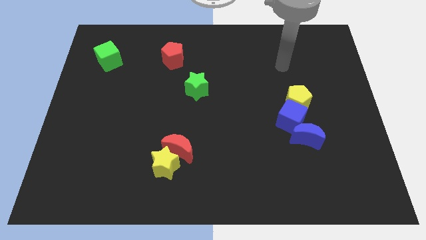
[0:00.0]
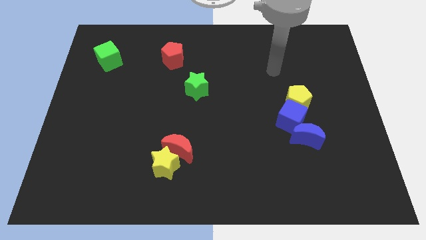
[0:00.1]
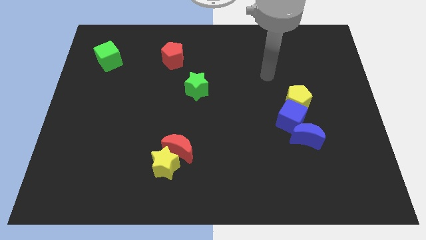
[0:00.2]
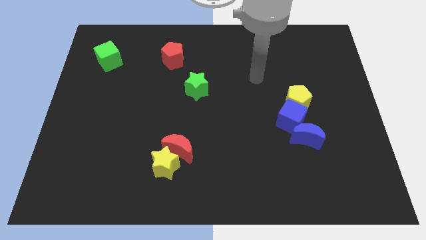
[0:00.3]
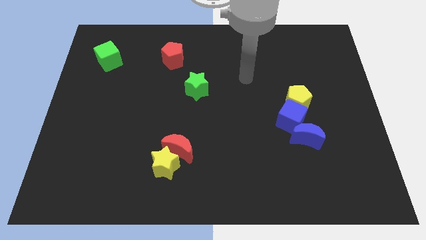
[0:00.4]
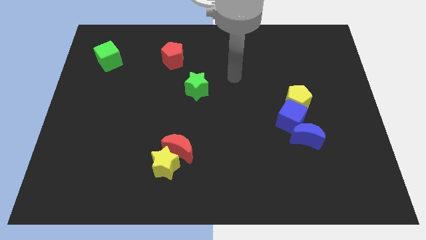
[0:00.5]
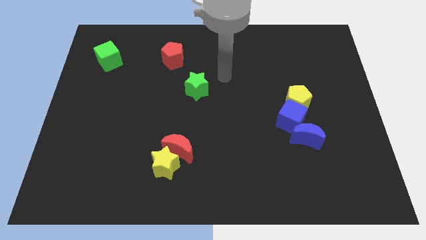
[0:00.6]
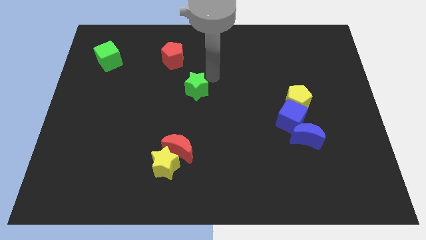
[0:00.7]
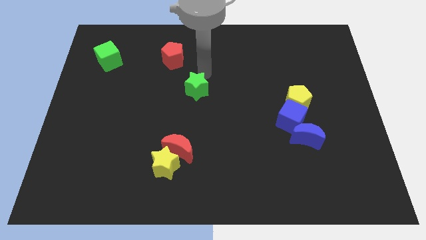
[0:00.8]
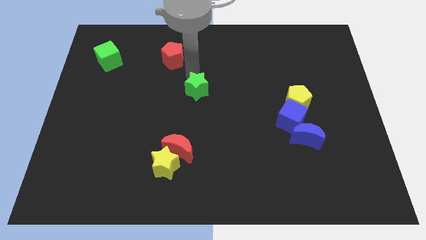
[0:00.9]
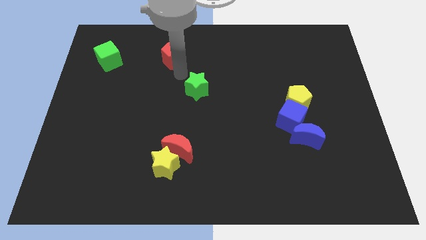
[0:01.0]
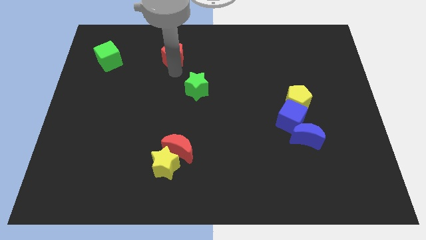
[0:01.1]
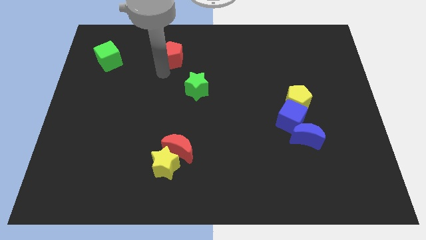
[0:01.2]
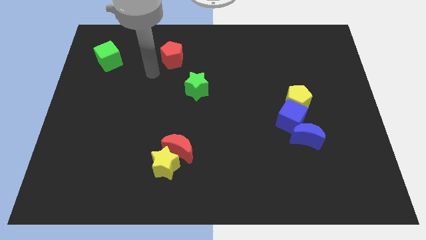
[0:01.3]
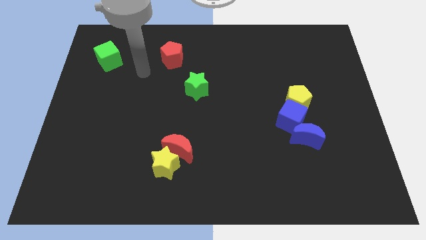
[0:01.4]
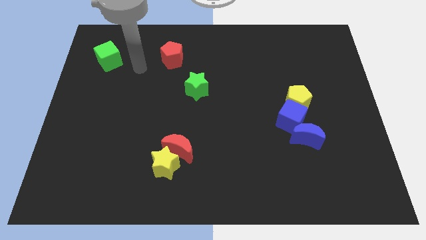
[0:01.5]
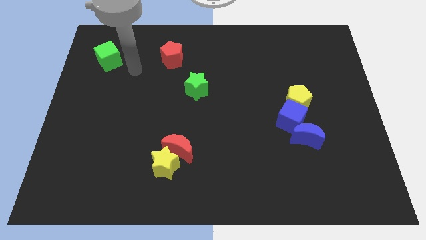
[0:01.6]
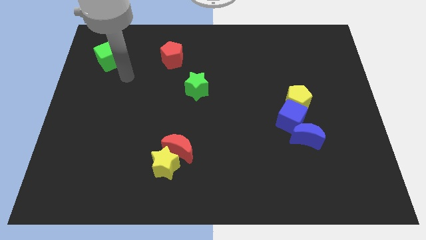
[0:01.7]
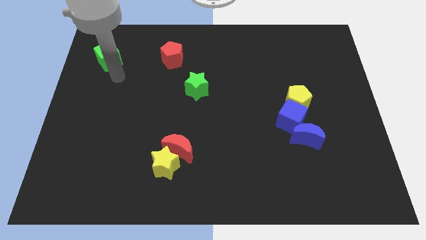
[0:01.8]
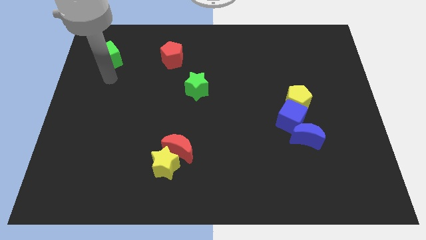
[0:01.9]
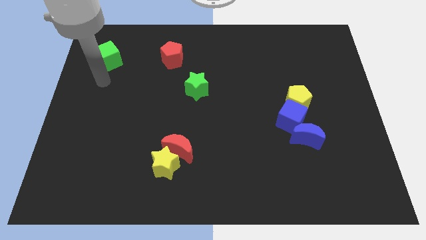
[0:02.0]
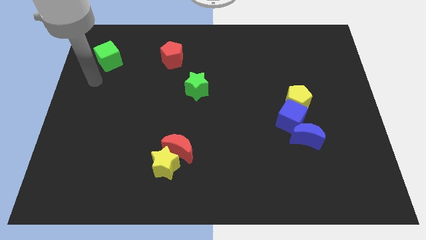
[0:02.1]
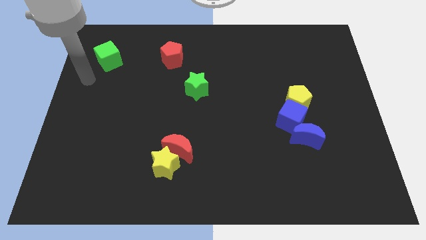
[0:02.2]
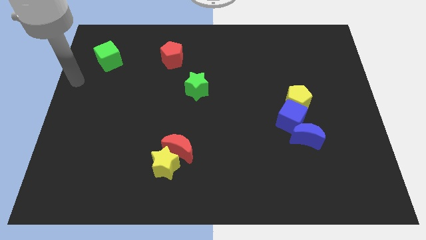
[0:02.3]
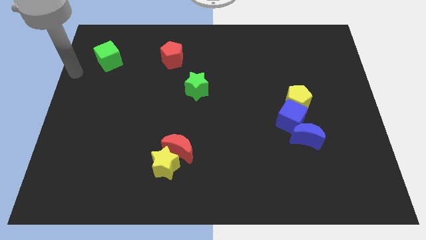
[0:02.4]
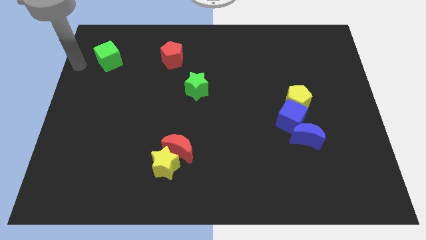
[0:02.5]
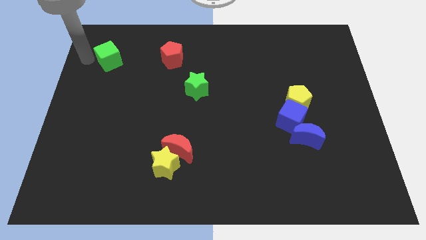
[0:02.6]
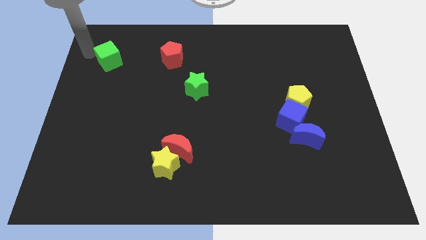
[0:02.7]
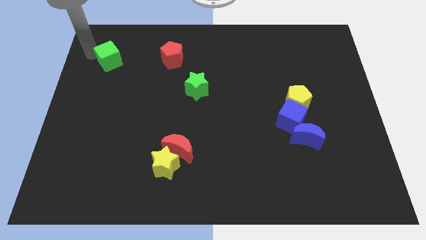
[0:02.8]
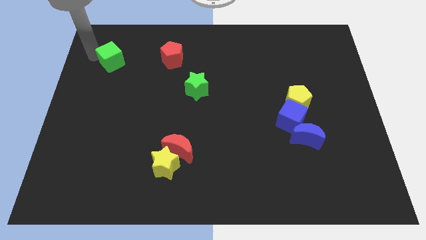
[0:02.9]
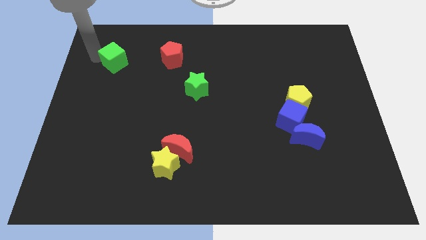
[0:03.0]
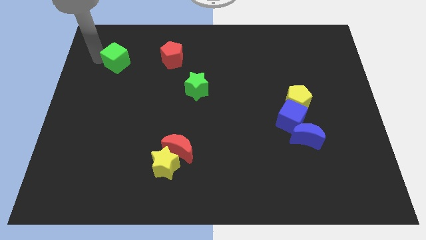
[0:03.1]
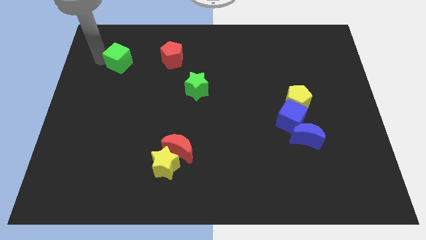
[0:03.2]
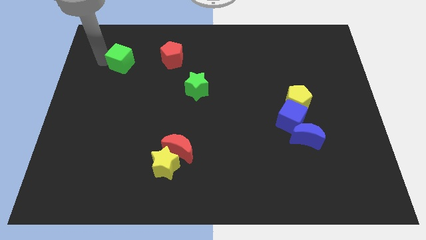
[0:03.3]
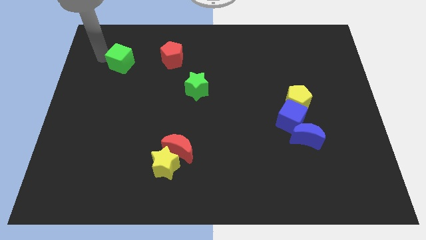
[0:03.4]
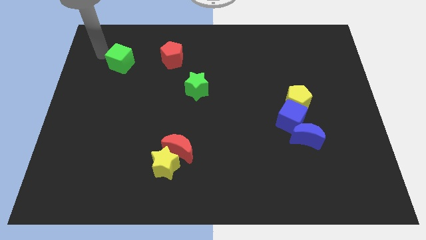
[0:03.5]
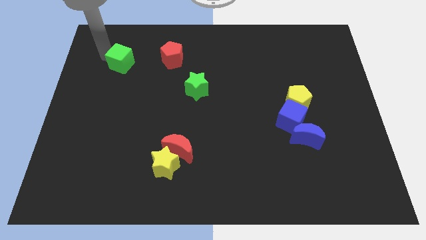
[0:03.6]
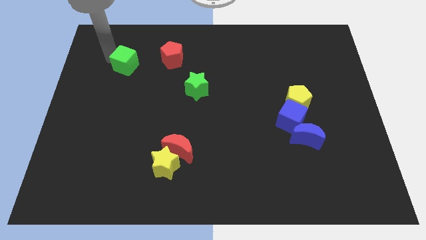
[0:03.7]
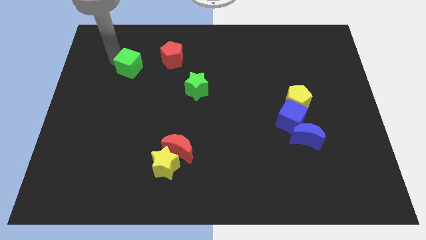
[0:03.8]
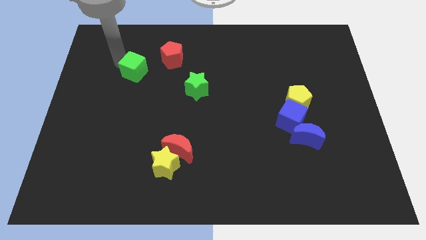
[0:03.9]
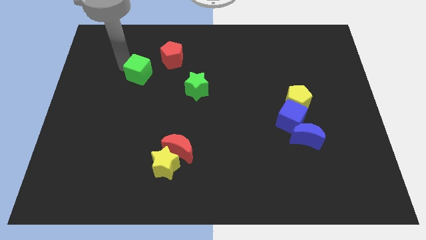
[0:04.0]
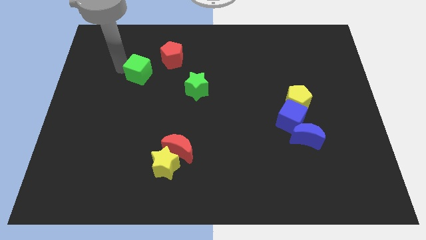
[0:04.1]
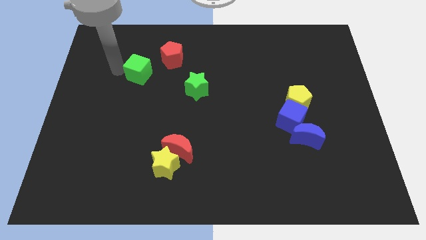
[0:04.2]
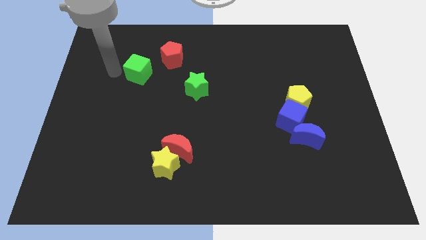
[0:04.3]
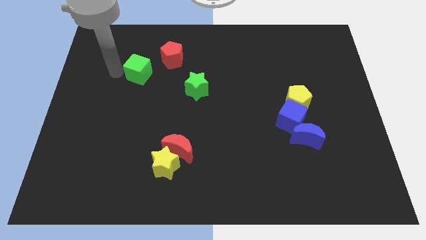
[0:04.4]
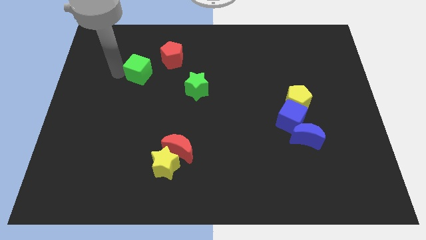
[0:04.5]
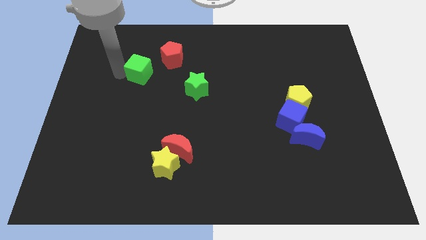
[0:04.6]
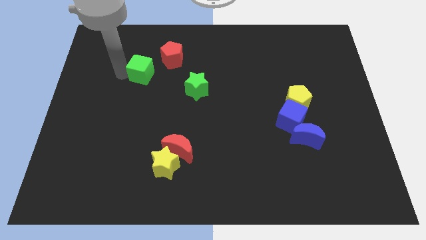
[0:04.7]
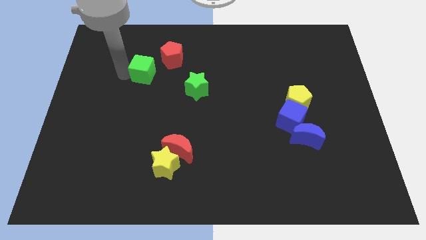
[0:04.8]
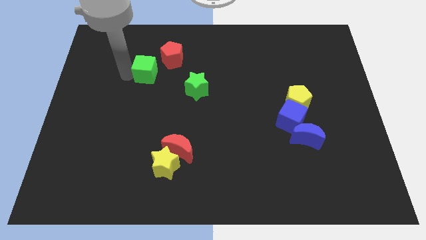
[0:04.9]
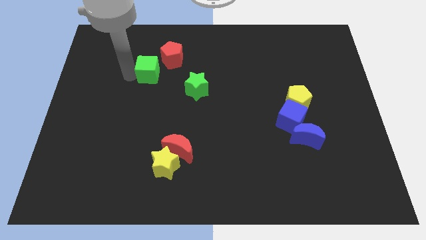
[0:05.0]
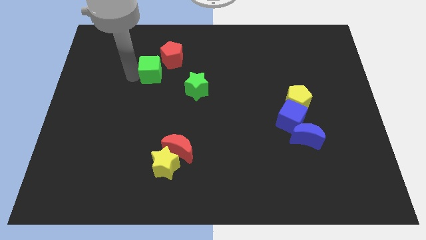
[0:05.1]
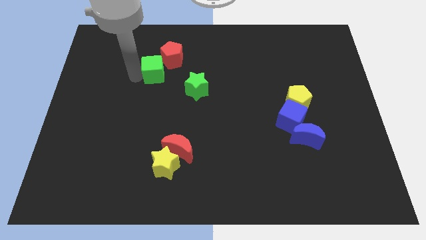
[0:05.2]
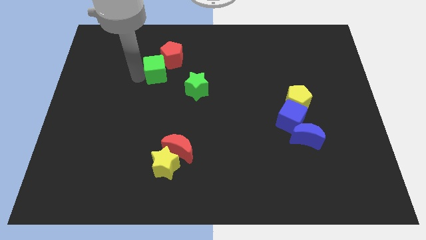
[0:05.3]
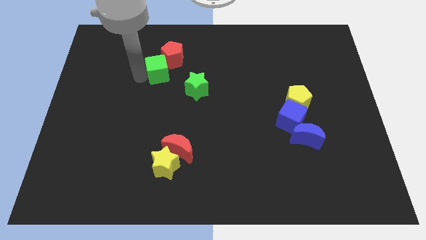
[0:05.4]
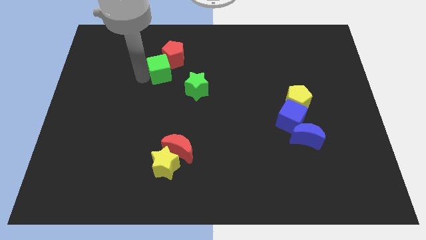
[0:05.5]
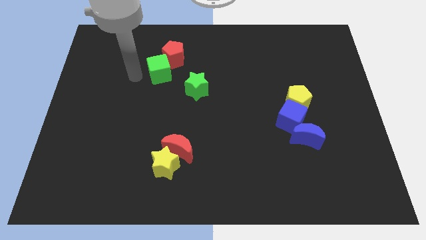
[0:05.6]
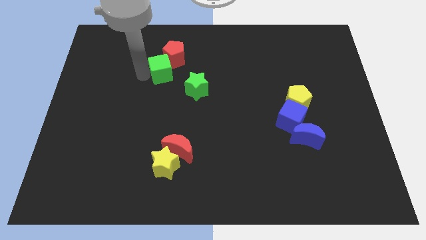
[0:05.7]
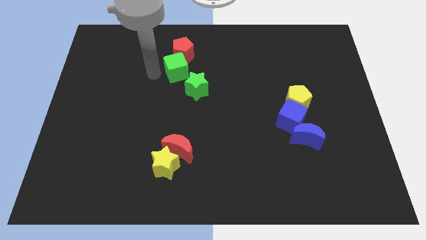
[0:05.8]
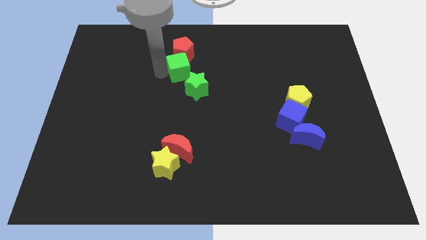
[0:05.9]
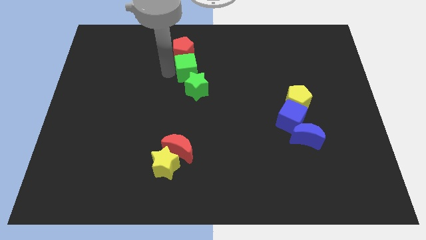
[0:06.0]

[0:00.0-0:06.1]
push the green cube right

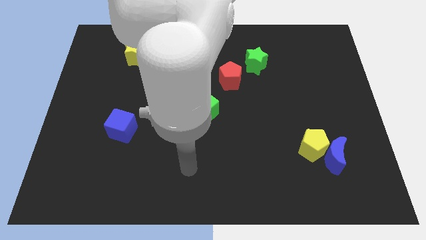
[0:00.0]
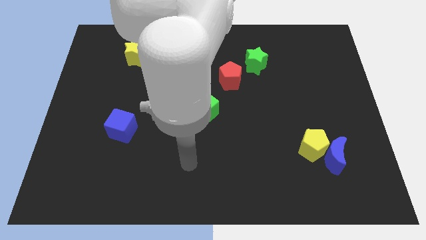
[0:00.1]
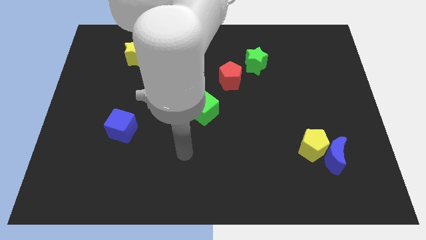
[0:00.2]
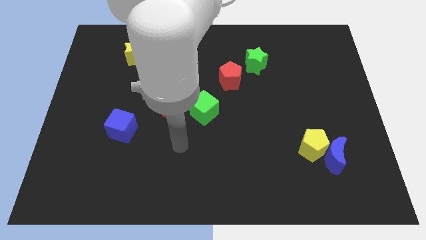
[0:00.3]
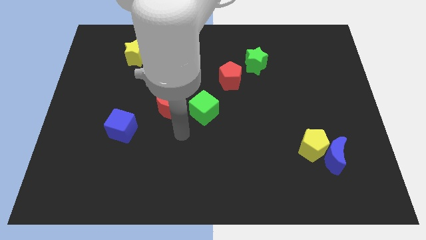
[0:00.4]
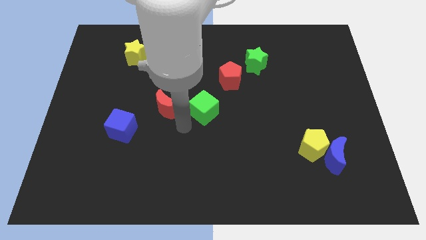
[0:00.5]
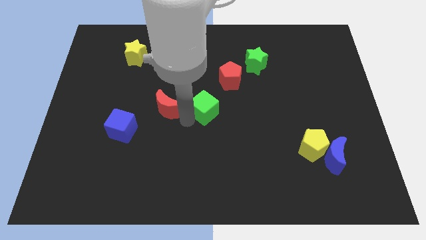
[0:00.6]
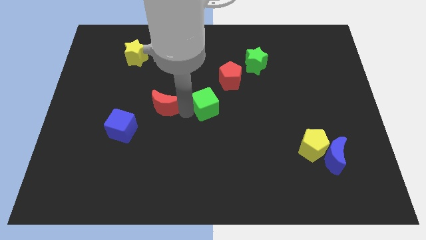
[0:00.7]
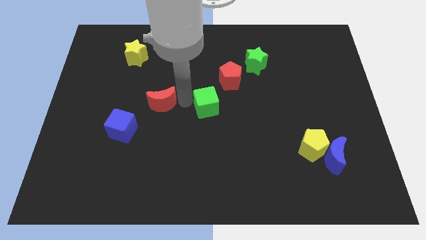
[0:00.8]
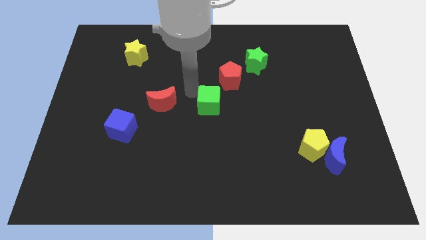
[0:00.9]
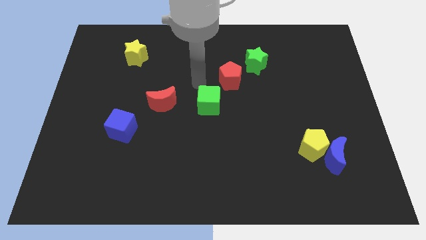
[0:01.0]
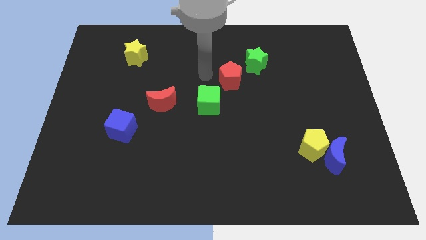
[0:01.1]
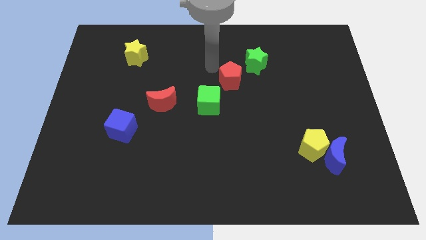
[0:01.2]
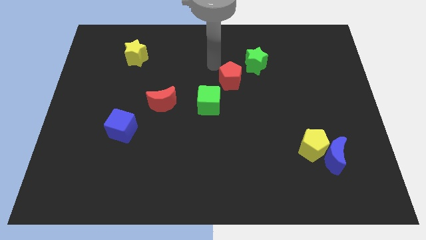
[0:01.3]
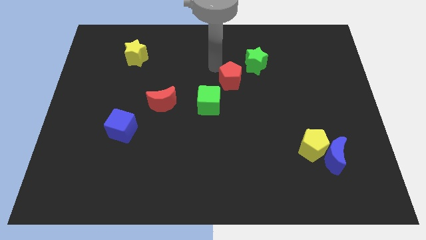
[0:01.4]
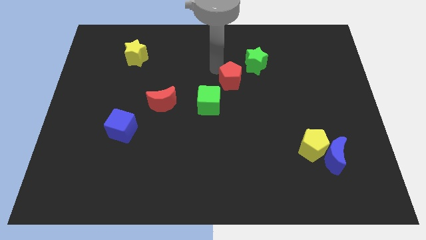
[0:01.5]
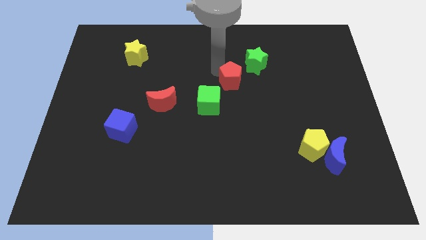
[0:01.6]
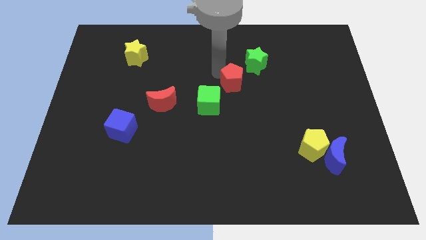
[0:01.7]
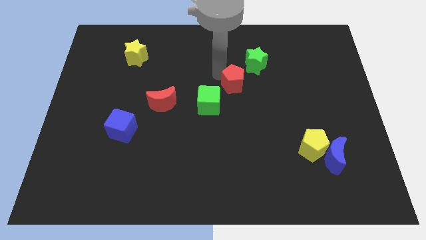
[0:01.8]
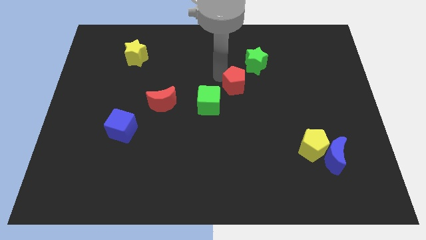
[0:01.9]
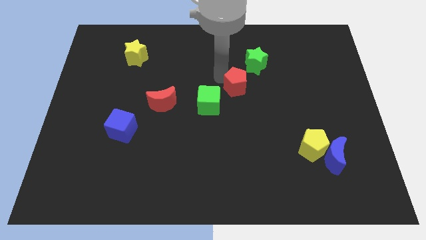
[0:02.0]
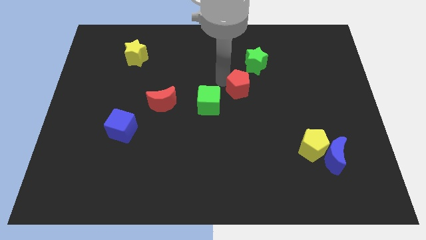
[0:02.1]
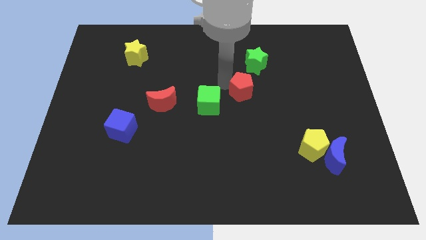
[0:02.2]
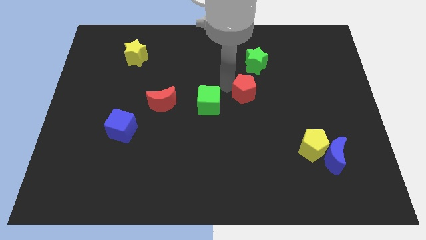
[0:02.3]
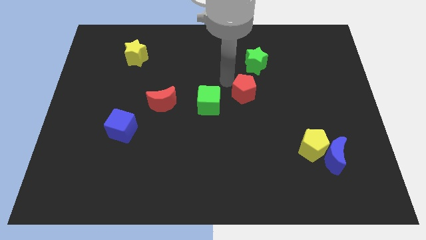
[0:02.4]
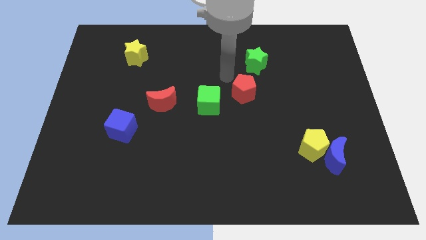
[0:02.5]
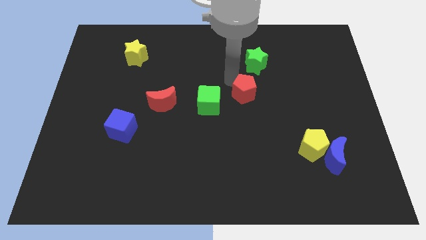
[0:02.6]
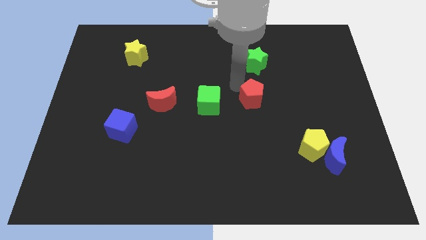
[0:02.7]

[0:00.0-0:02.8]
move the red pentagon a little down and right
